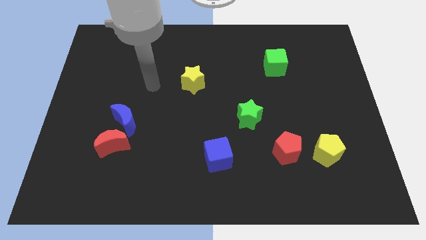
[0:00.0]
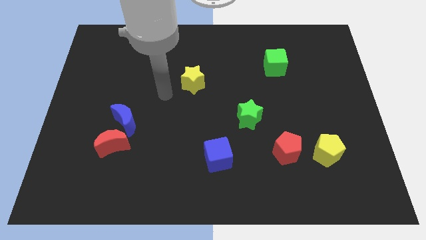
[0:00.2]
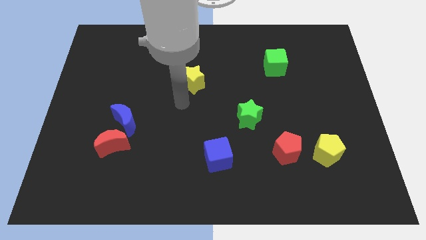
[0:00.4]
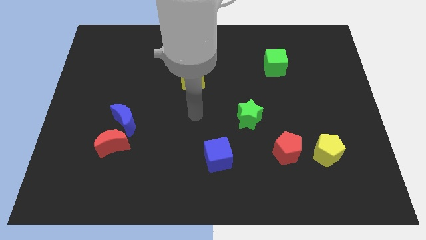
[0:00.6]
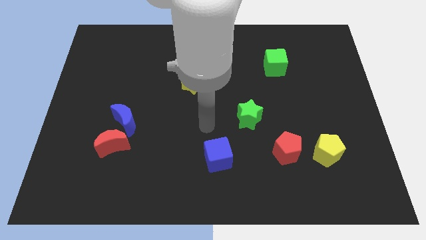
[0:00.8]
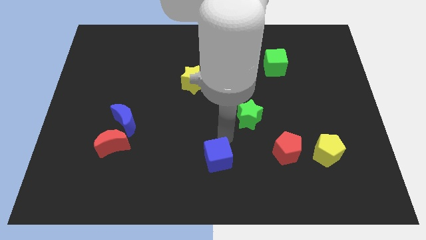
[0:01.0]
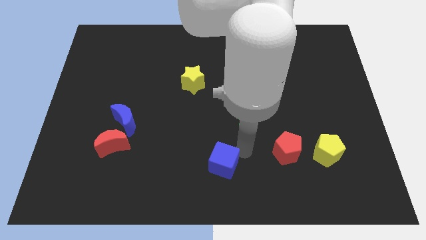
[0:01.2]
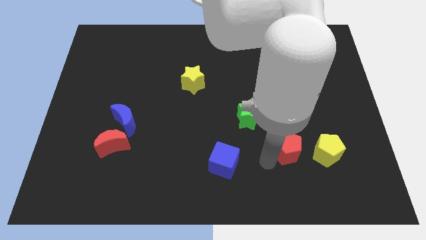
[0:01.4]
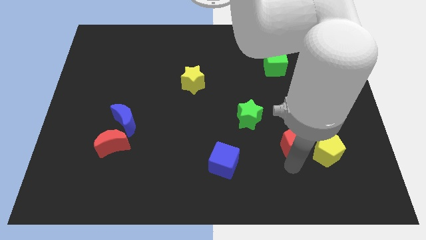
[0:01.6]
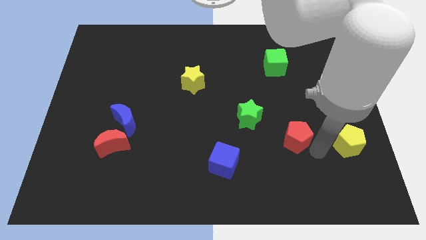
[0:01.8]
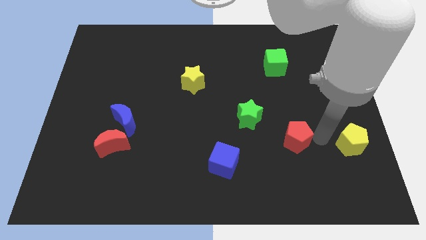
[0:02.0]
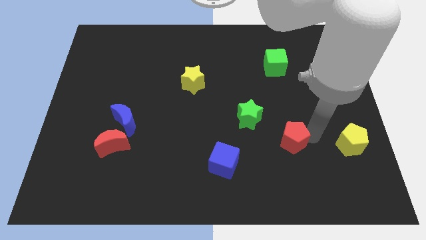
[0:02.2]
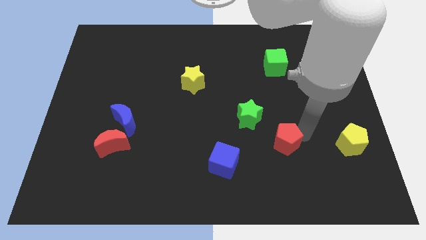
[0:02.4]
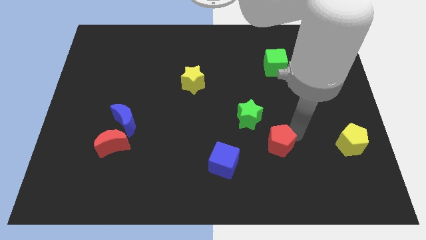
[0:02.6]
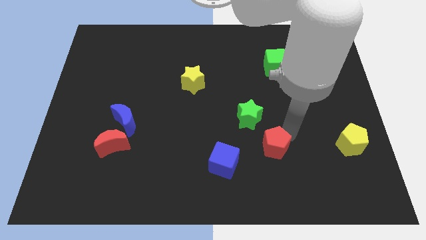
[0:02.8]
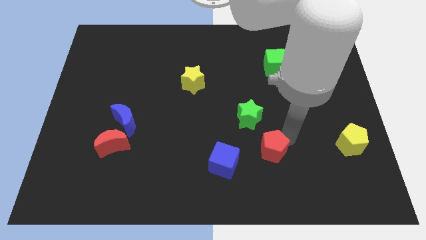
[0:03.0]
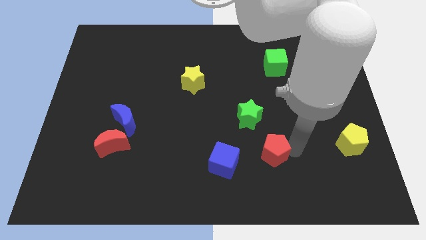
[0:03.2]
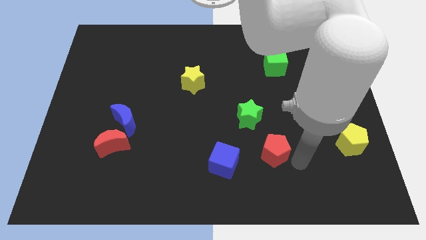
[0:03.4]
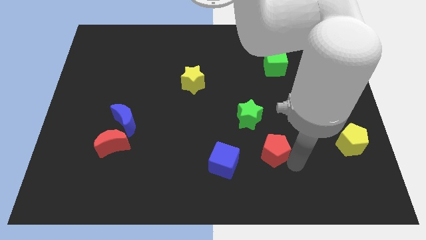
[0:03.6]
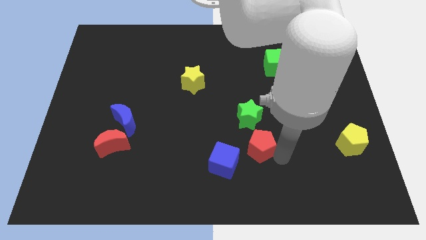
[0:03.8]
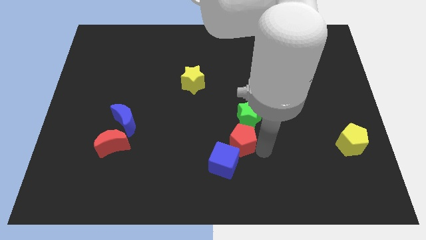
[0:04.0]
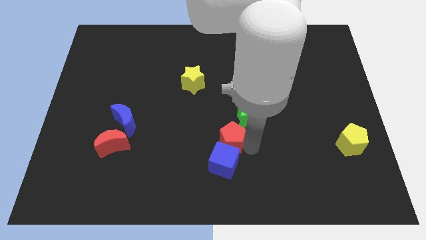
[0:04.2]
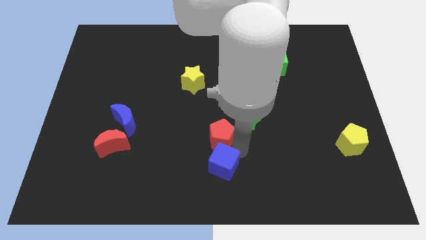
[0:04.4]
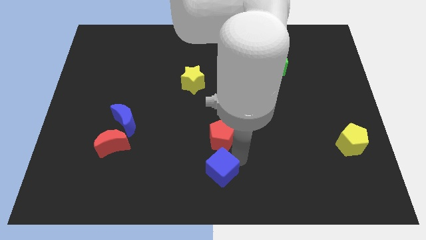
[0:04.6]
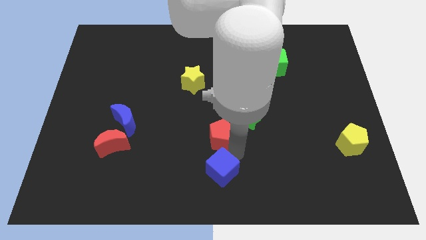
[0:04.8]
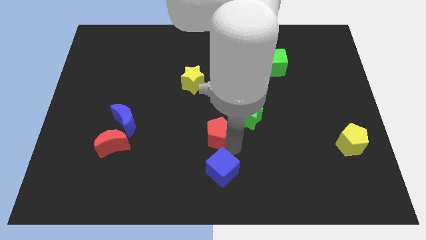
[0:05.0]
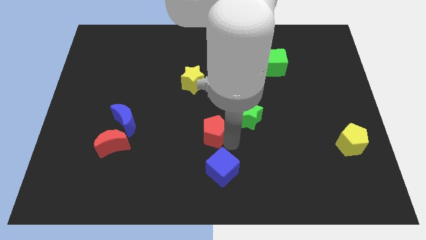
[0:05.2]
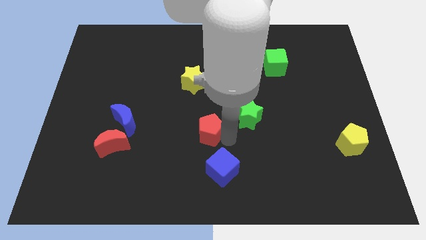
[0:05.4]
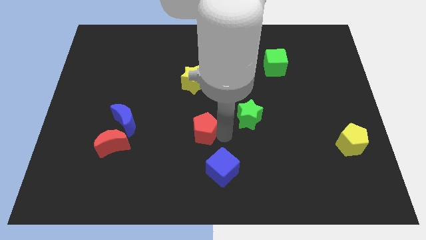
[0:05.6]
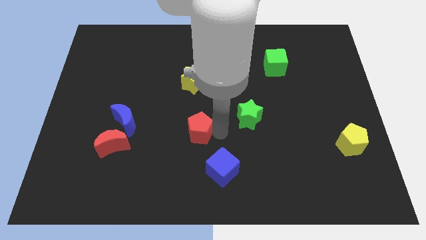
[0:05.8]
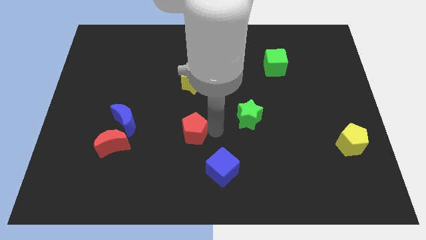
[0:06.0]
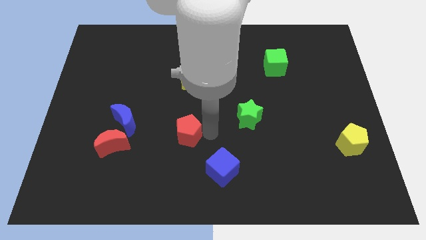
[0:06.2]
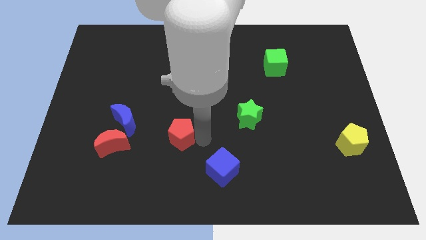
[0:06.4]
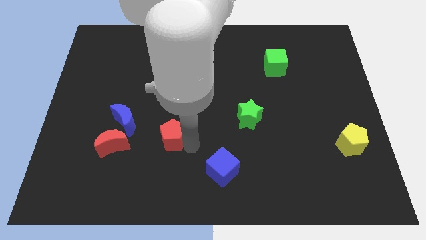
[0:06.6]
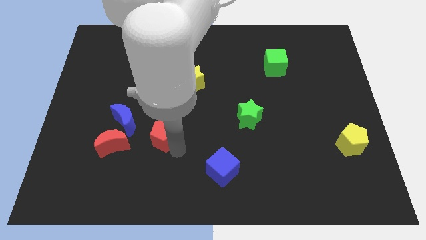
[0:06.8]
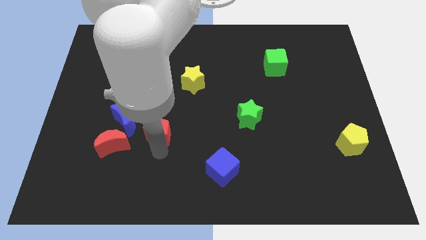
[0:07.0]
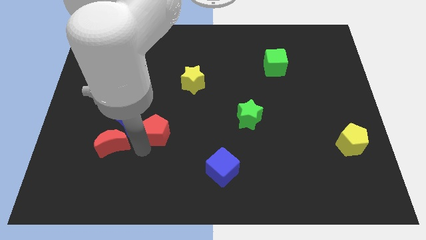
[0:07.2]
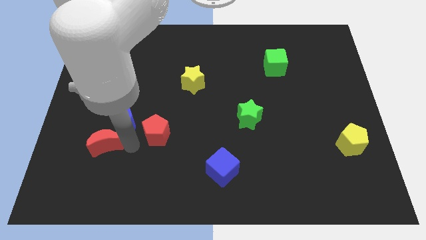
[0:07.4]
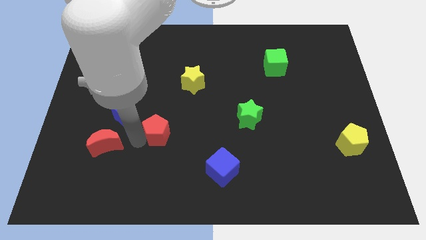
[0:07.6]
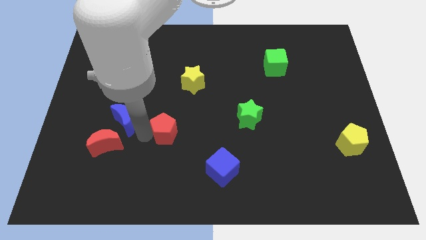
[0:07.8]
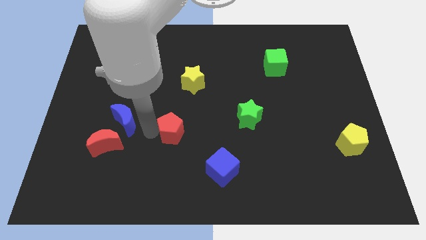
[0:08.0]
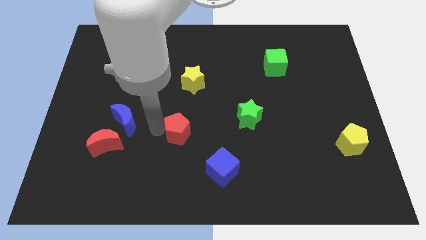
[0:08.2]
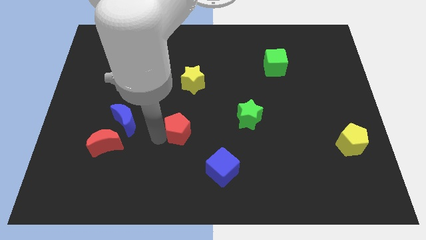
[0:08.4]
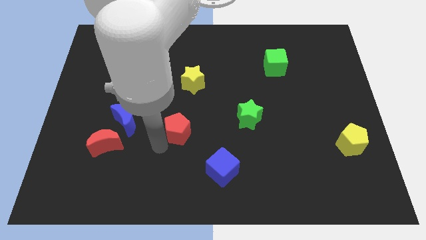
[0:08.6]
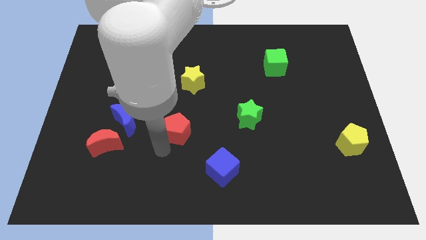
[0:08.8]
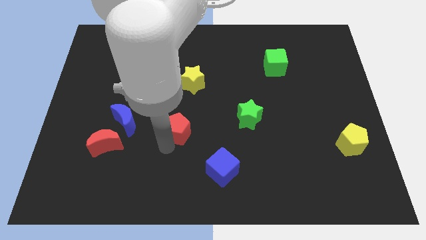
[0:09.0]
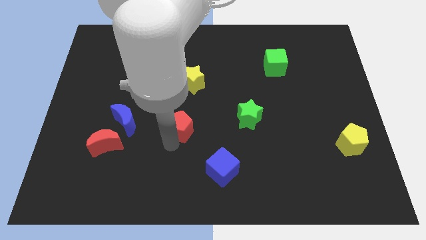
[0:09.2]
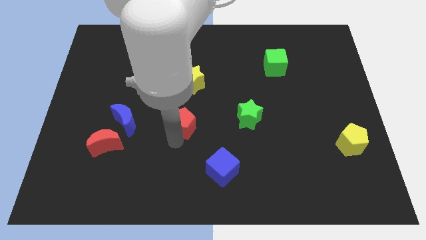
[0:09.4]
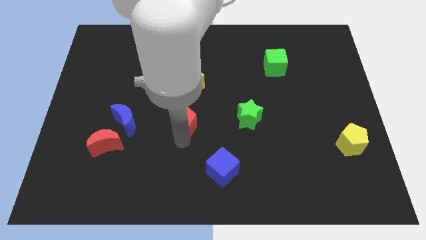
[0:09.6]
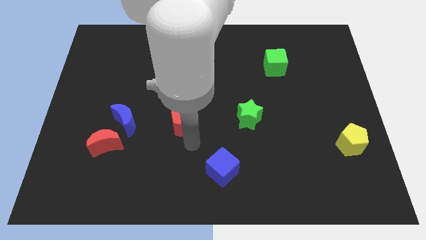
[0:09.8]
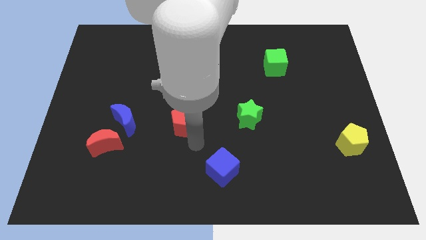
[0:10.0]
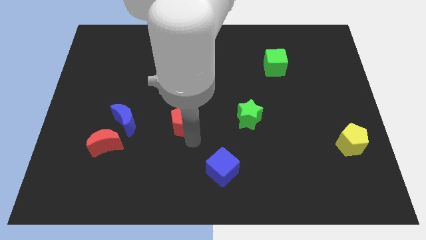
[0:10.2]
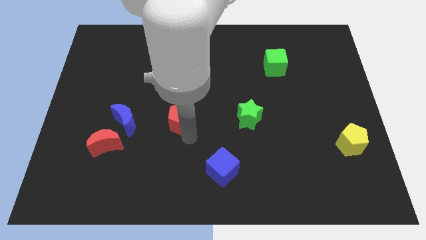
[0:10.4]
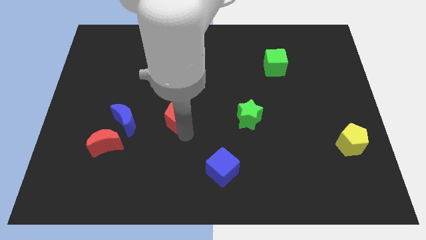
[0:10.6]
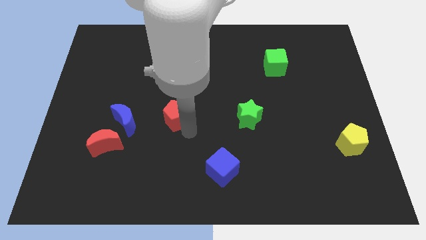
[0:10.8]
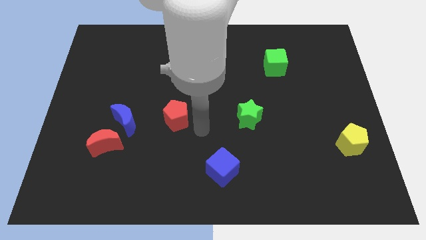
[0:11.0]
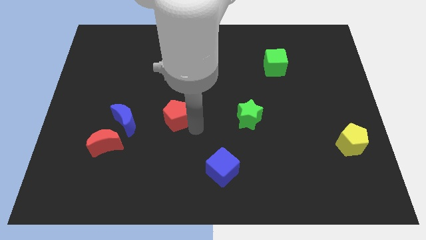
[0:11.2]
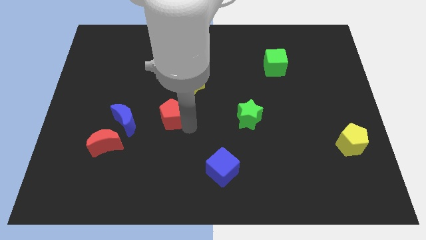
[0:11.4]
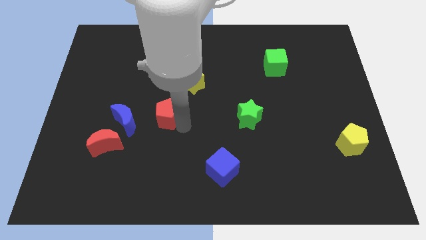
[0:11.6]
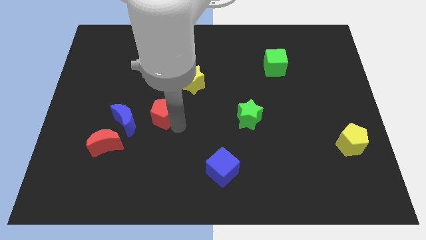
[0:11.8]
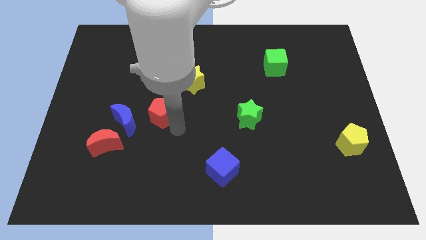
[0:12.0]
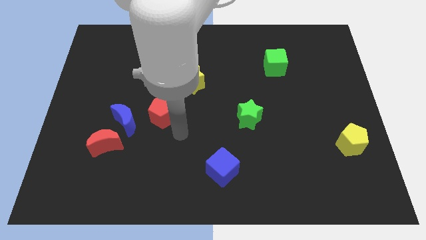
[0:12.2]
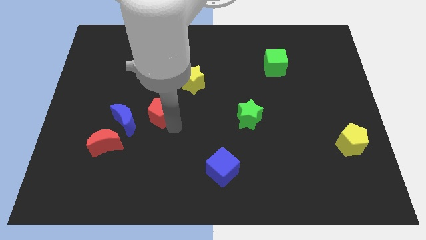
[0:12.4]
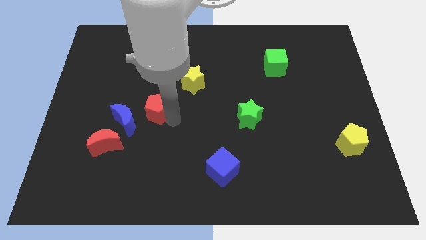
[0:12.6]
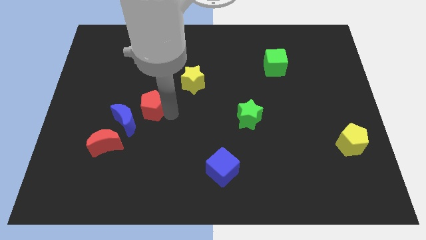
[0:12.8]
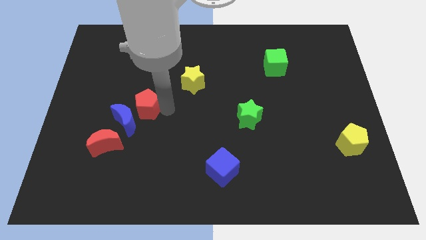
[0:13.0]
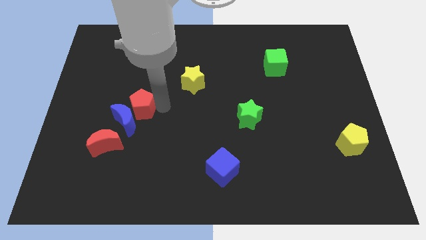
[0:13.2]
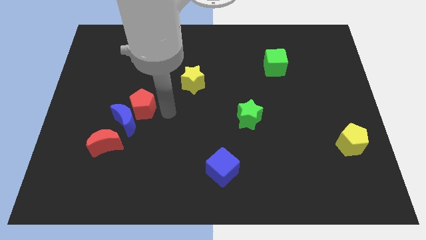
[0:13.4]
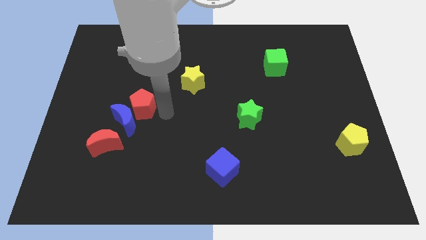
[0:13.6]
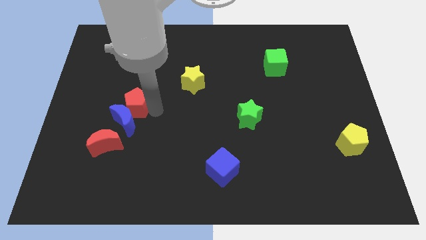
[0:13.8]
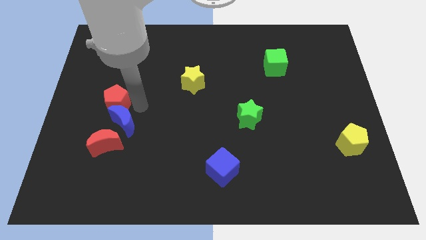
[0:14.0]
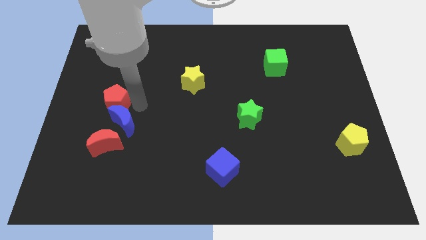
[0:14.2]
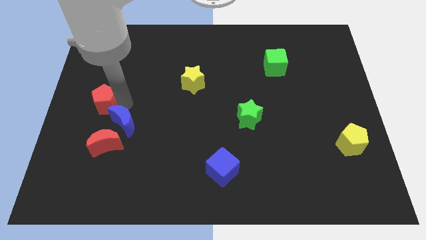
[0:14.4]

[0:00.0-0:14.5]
put the red pentagon to the center left
